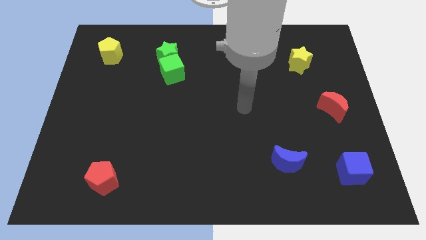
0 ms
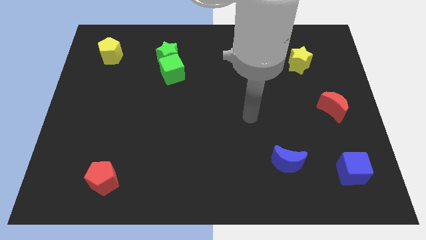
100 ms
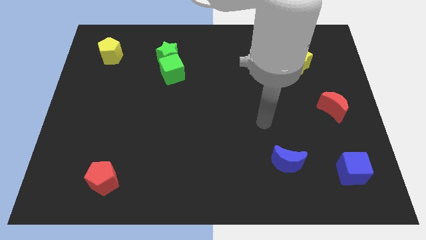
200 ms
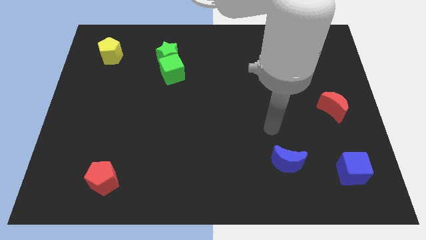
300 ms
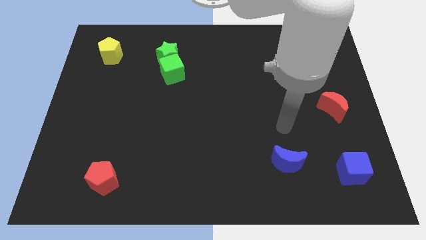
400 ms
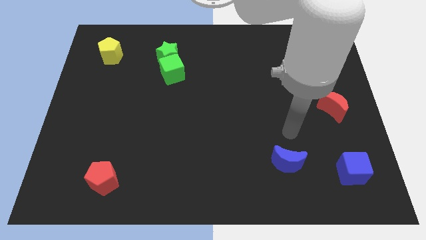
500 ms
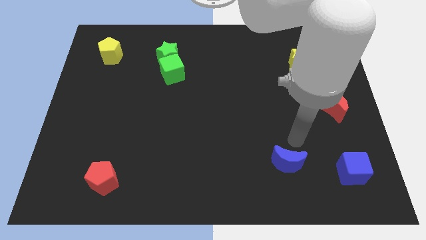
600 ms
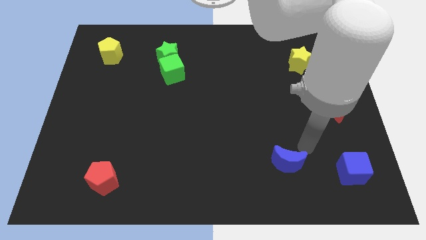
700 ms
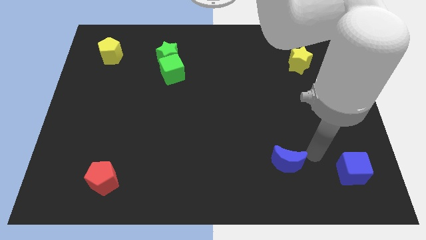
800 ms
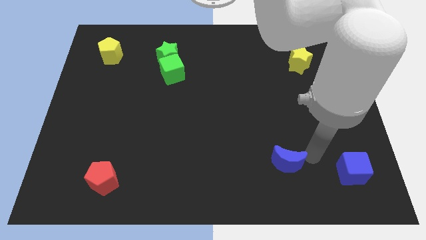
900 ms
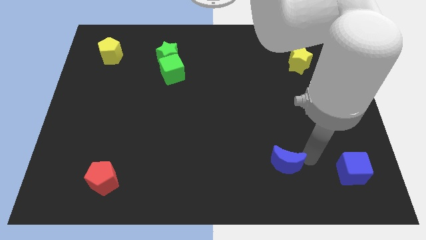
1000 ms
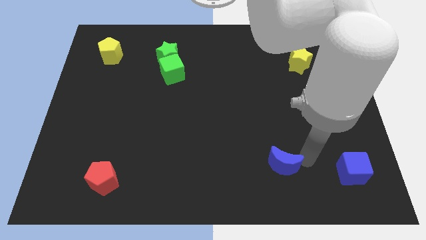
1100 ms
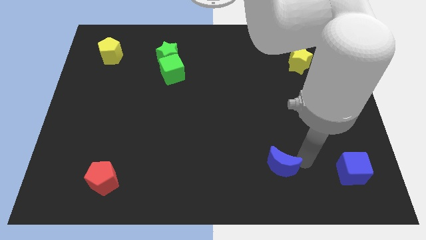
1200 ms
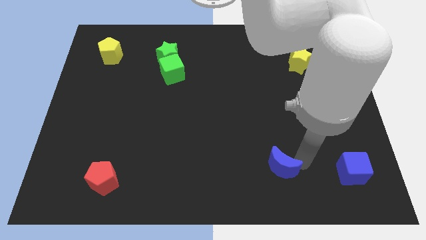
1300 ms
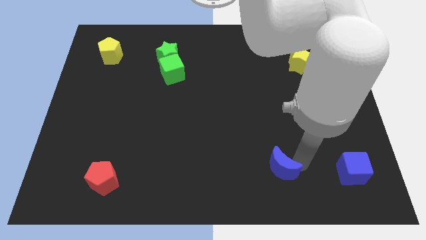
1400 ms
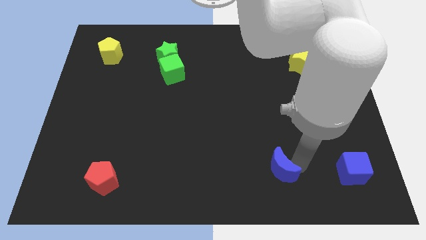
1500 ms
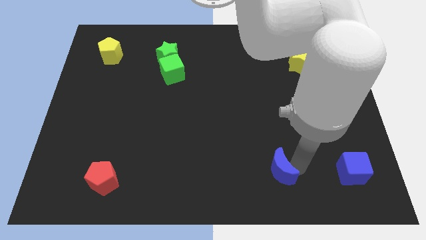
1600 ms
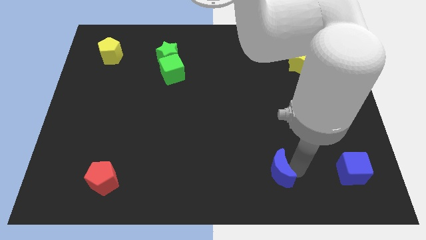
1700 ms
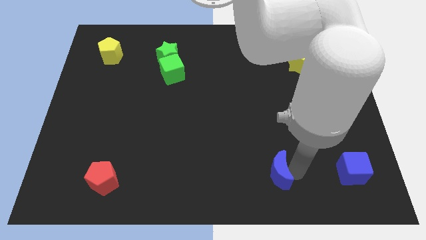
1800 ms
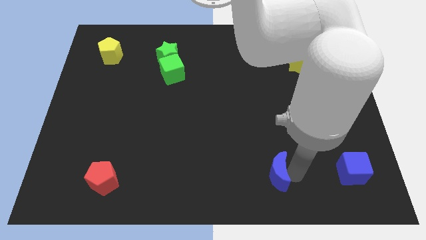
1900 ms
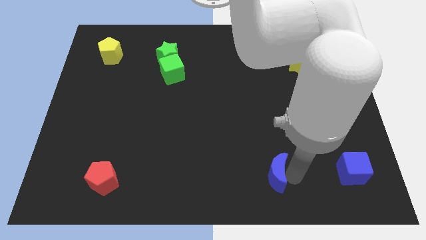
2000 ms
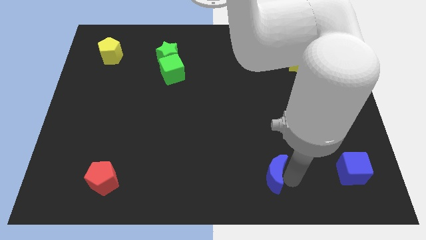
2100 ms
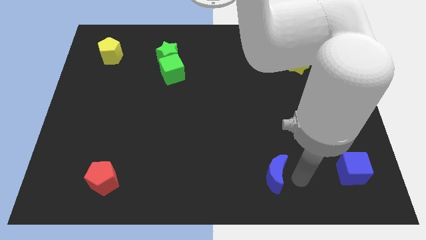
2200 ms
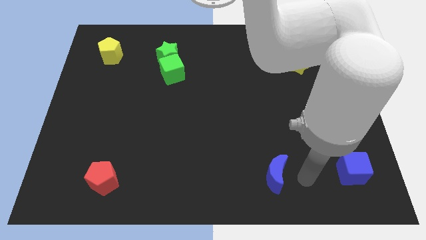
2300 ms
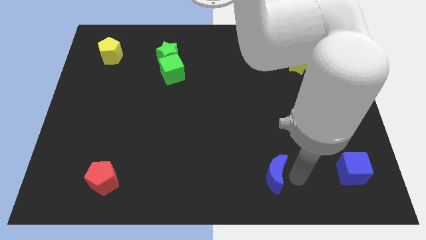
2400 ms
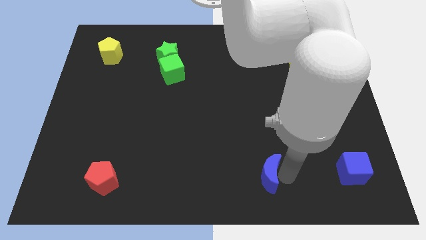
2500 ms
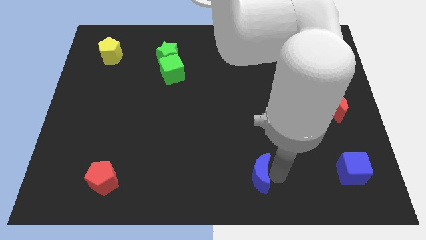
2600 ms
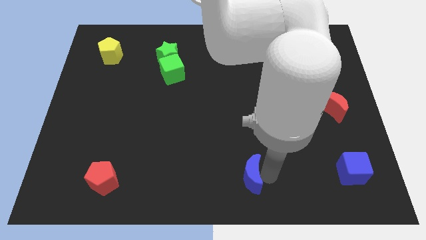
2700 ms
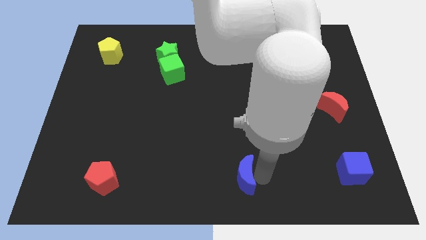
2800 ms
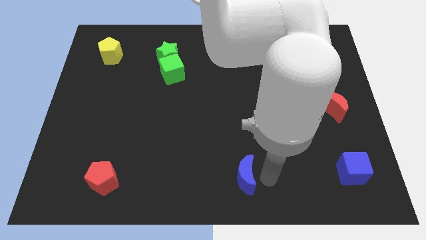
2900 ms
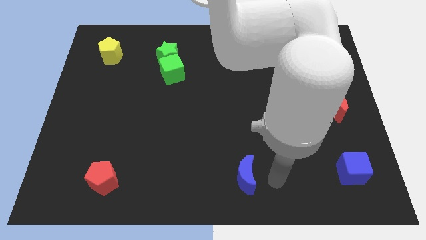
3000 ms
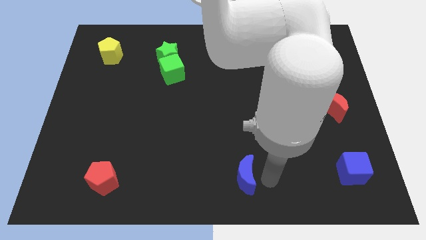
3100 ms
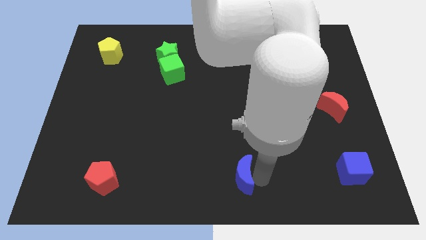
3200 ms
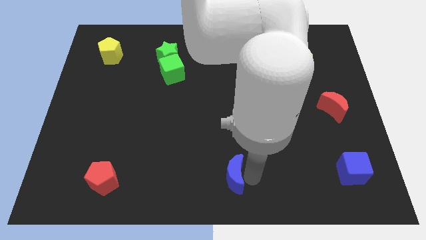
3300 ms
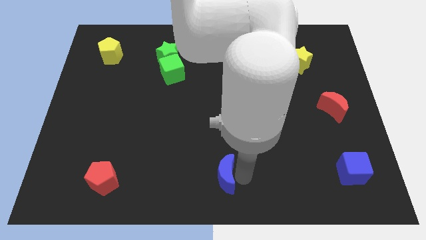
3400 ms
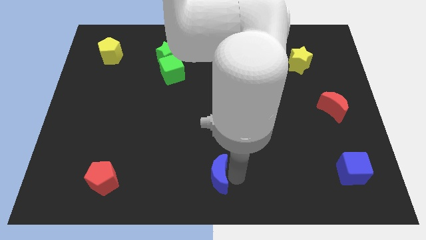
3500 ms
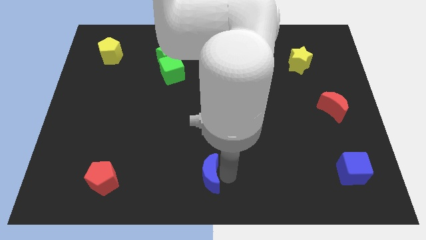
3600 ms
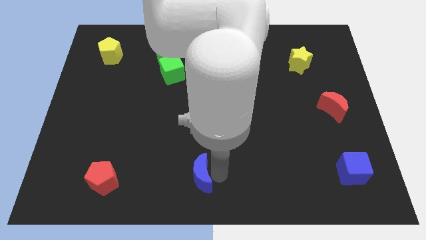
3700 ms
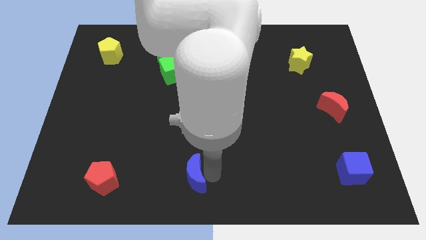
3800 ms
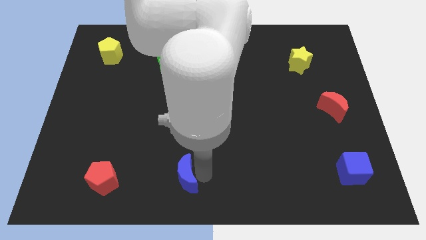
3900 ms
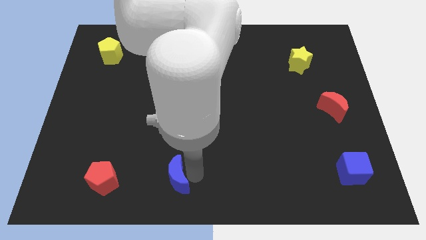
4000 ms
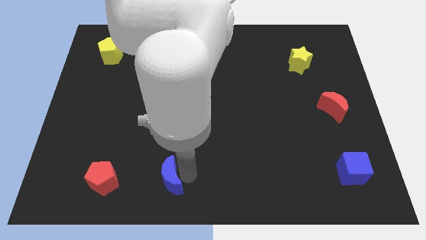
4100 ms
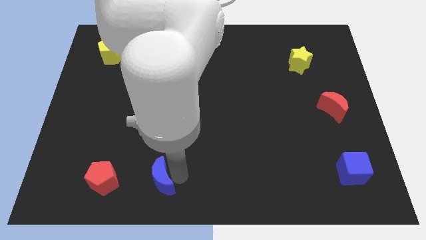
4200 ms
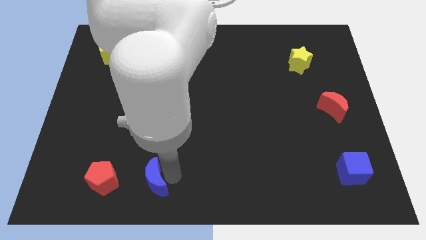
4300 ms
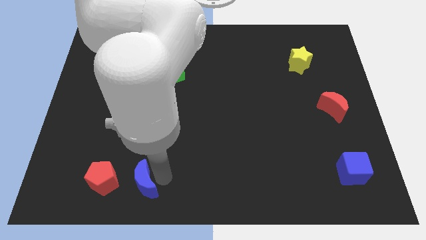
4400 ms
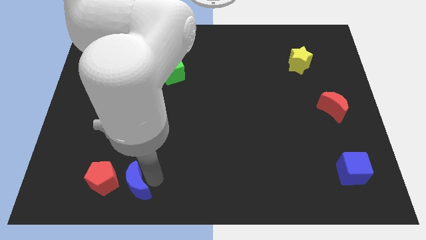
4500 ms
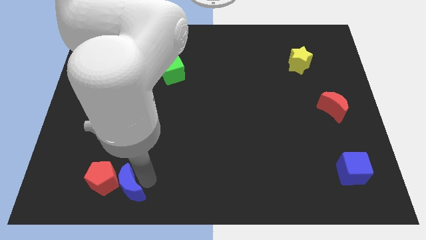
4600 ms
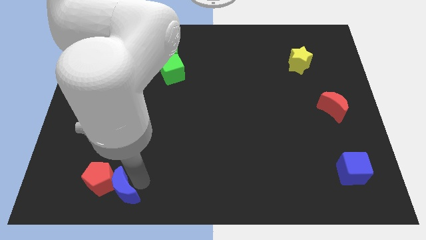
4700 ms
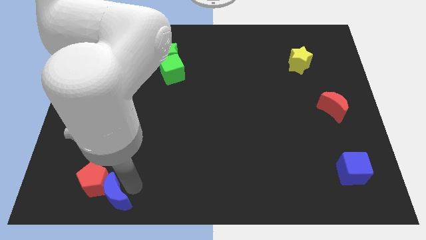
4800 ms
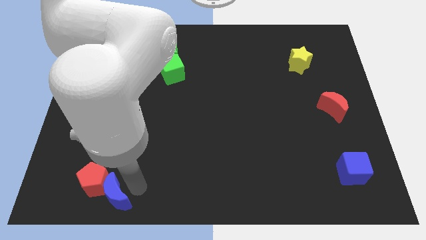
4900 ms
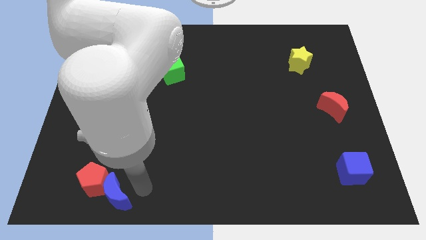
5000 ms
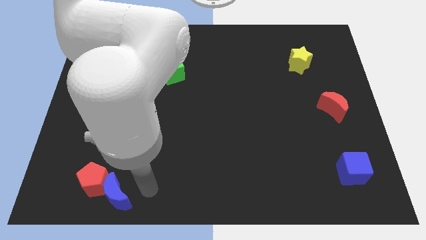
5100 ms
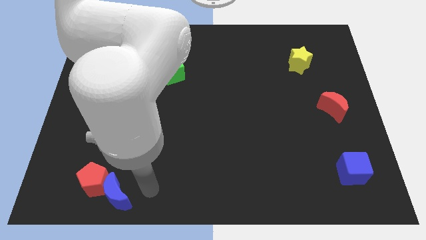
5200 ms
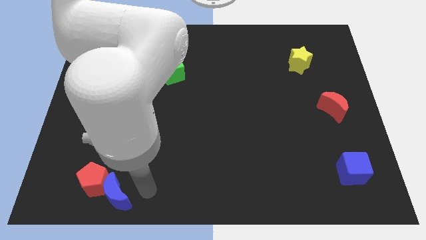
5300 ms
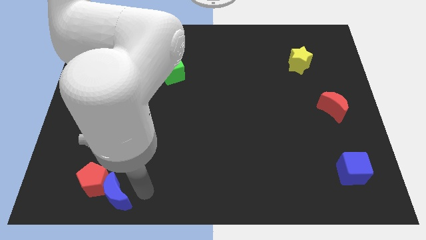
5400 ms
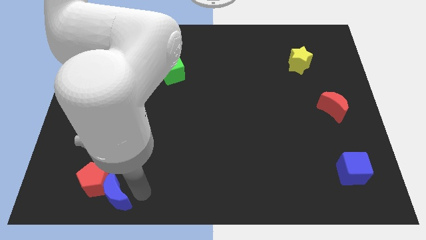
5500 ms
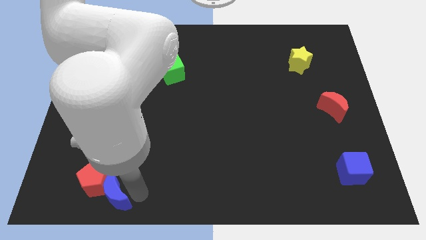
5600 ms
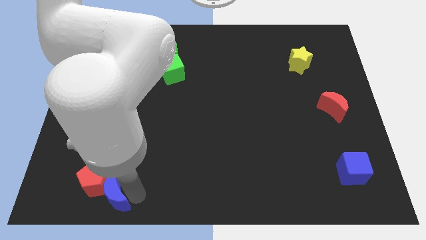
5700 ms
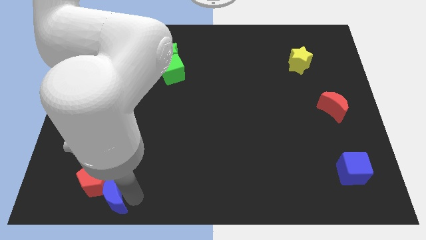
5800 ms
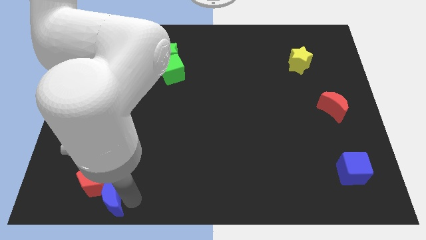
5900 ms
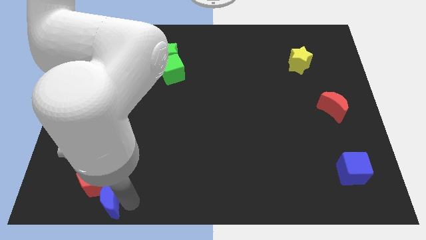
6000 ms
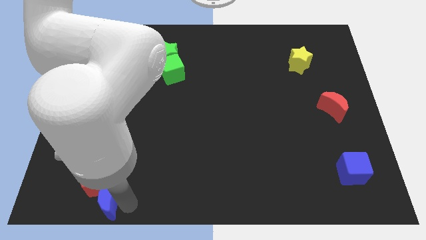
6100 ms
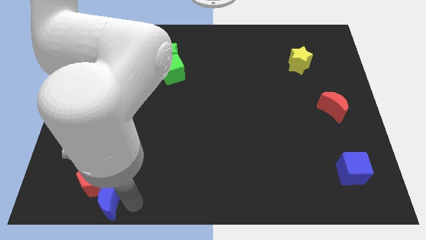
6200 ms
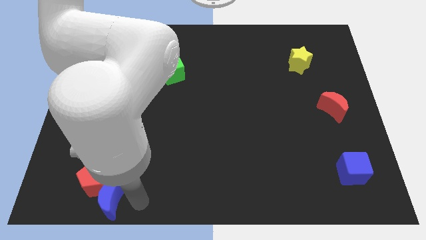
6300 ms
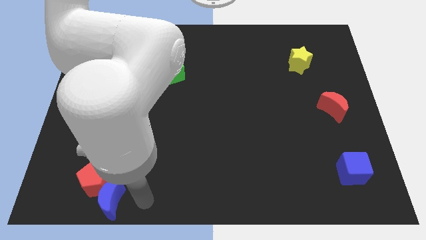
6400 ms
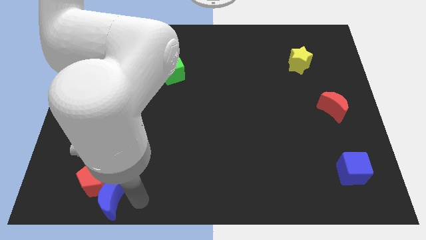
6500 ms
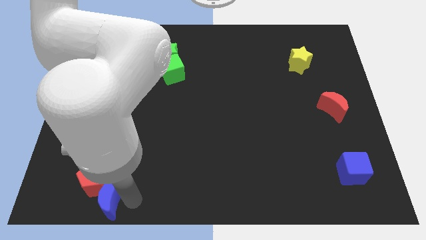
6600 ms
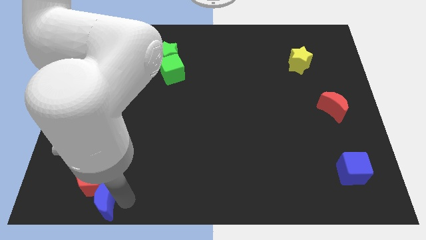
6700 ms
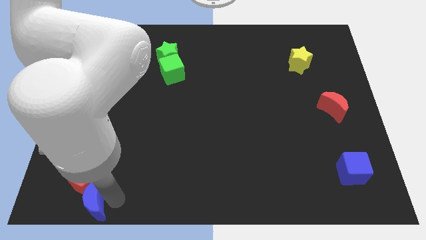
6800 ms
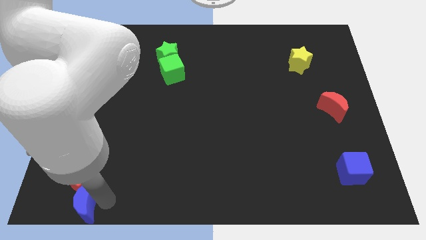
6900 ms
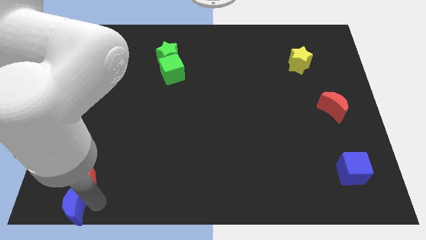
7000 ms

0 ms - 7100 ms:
put the blue moon to the bottom left of the board
